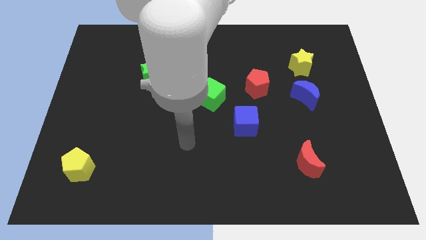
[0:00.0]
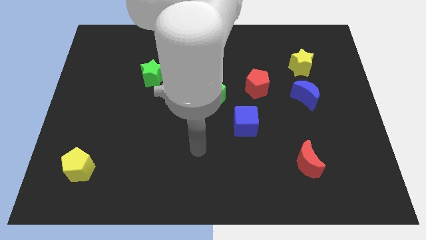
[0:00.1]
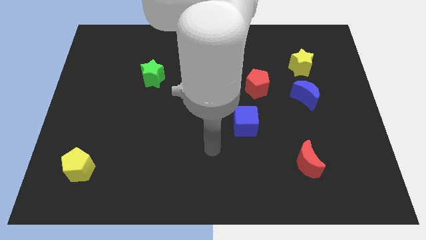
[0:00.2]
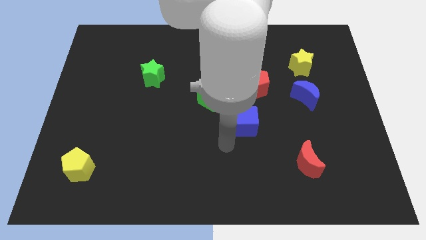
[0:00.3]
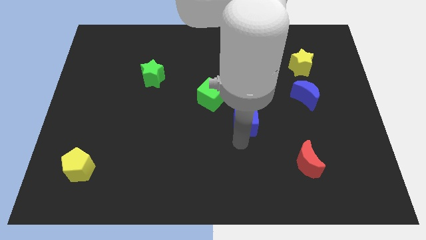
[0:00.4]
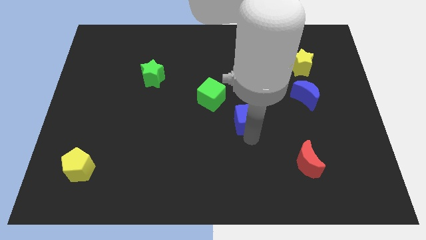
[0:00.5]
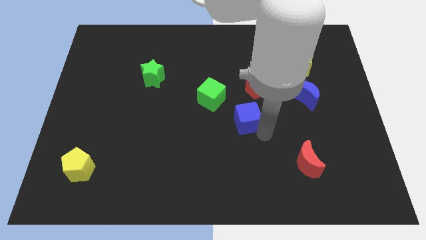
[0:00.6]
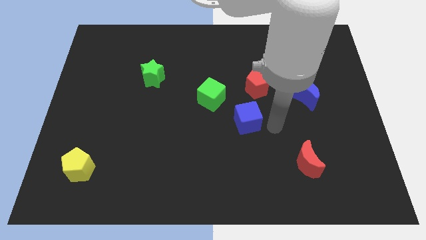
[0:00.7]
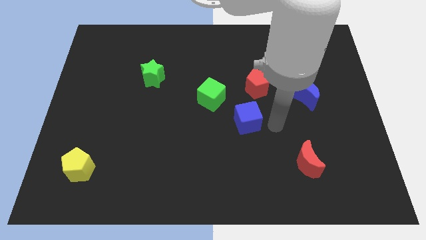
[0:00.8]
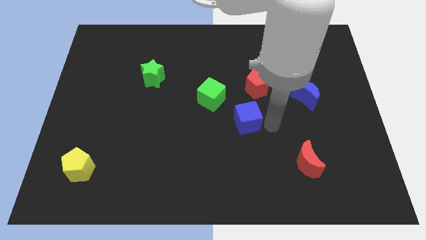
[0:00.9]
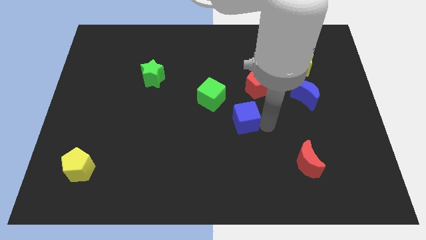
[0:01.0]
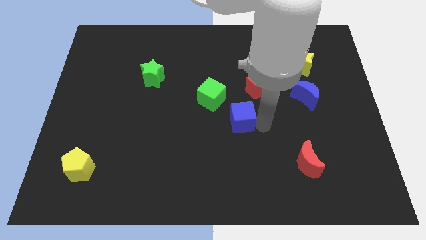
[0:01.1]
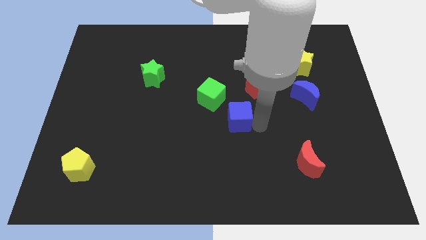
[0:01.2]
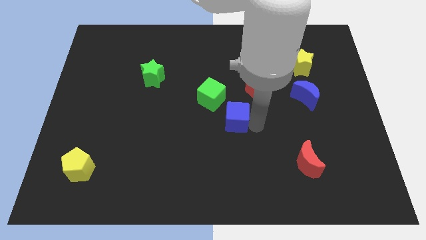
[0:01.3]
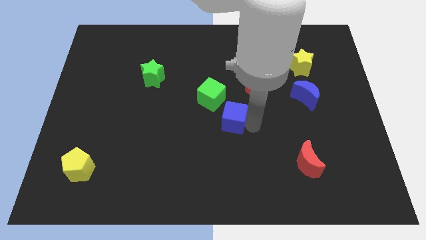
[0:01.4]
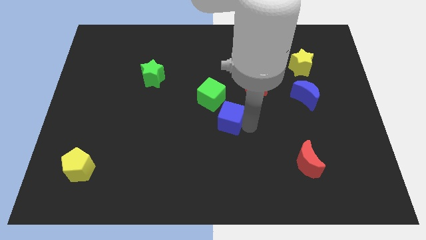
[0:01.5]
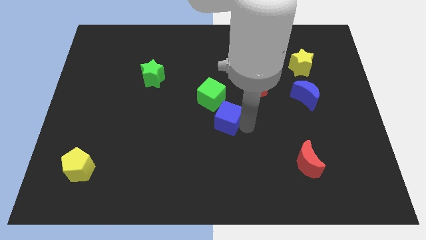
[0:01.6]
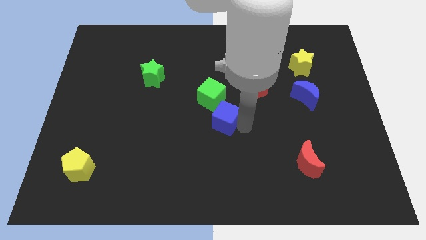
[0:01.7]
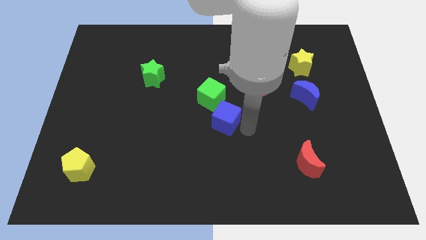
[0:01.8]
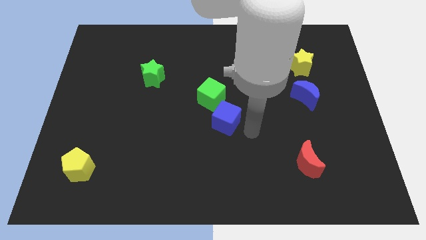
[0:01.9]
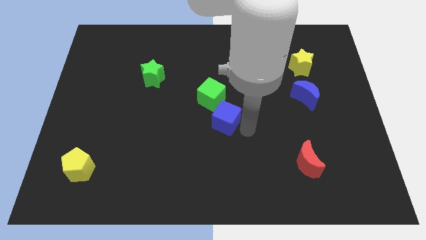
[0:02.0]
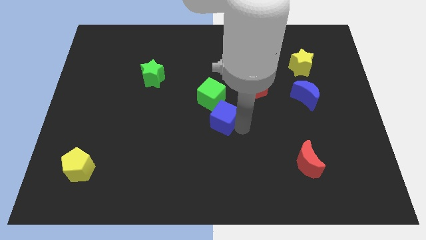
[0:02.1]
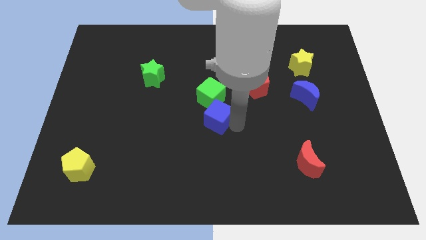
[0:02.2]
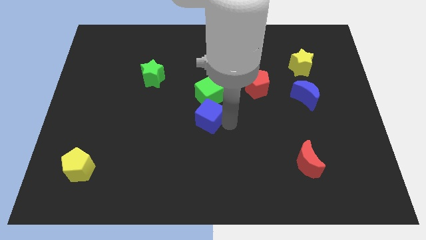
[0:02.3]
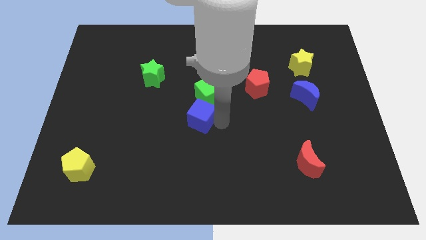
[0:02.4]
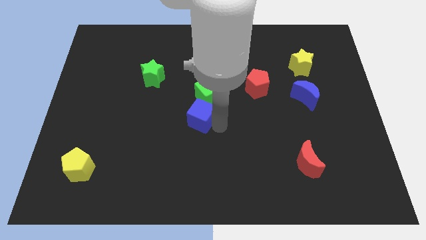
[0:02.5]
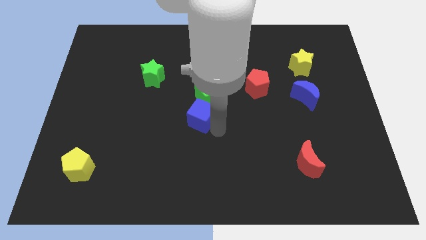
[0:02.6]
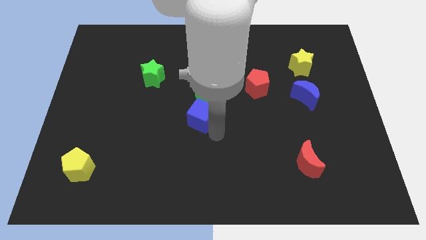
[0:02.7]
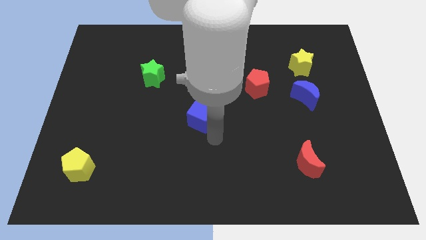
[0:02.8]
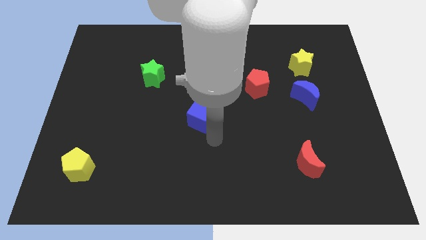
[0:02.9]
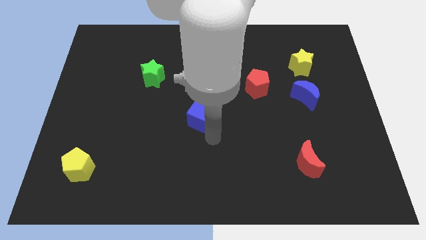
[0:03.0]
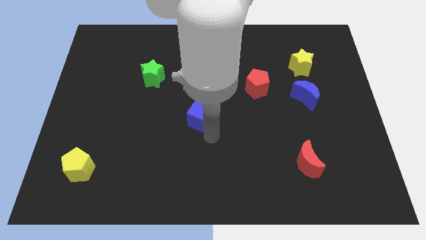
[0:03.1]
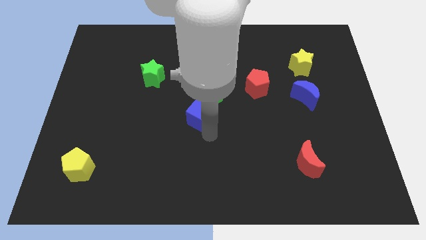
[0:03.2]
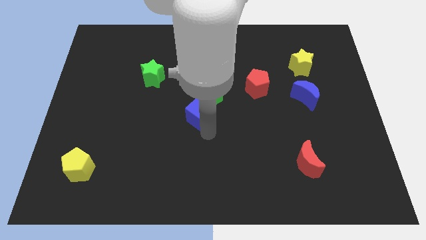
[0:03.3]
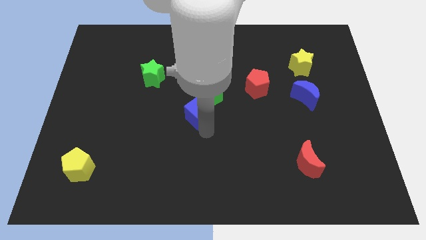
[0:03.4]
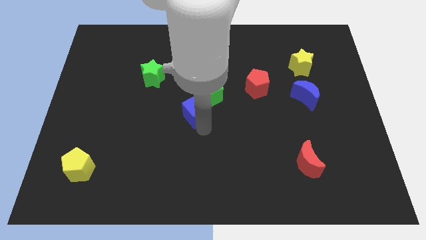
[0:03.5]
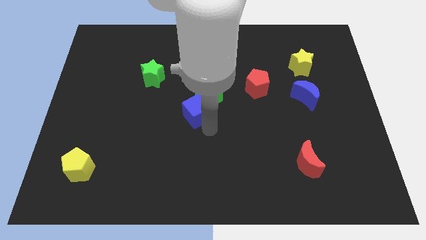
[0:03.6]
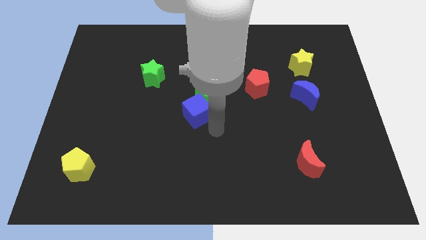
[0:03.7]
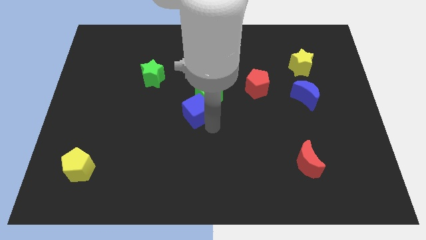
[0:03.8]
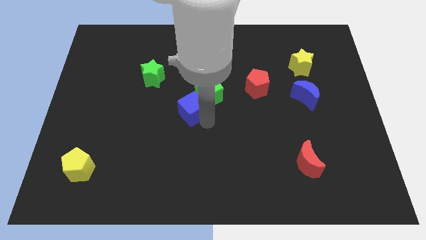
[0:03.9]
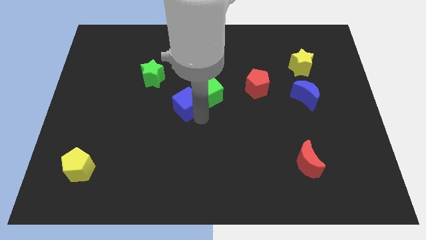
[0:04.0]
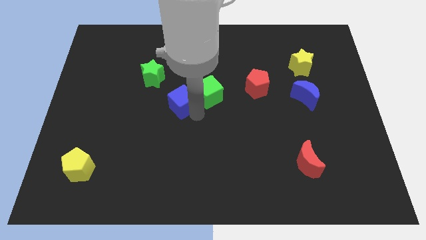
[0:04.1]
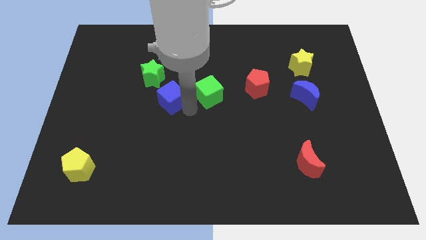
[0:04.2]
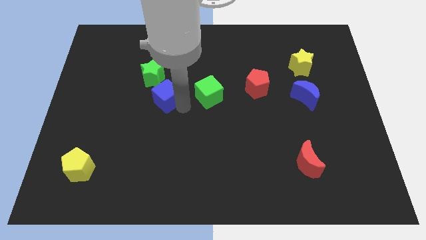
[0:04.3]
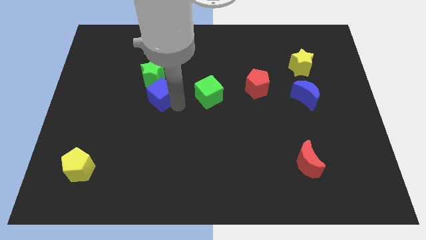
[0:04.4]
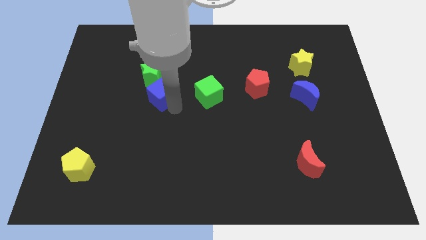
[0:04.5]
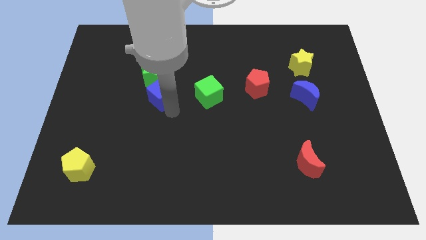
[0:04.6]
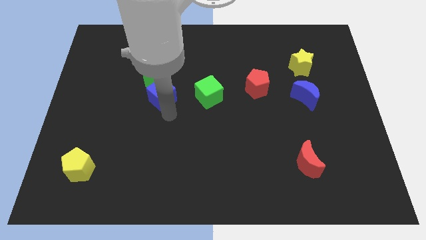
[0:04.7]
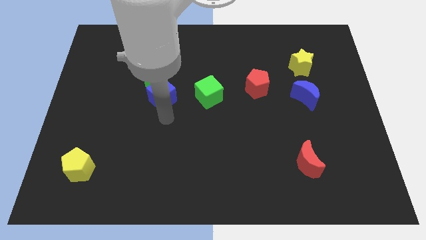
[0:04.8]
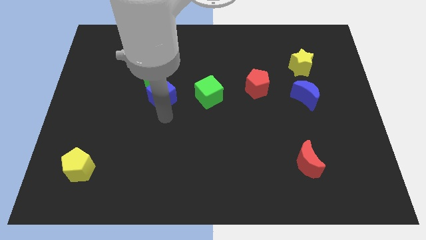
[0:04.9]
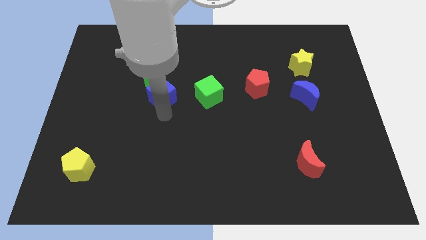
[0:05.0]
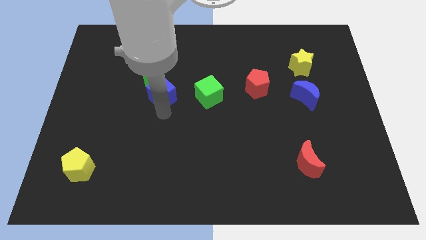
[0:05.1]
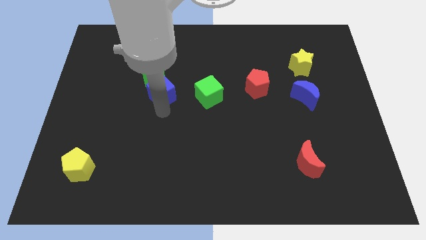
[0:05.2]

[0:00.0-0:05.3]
slide the blue cube to the green star

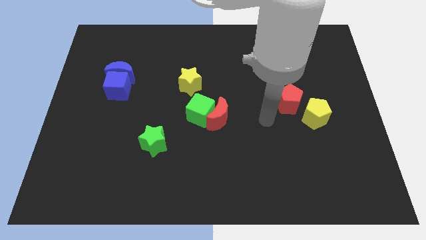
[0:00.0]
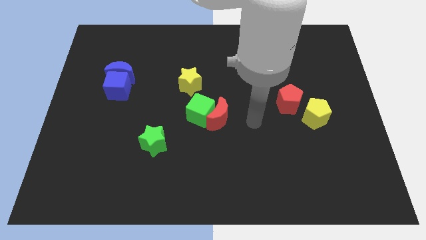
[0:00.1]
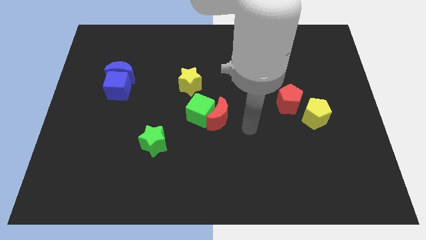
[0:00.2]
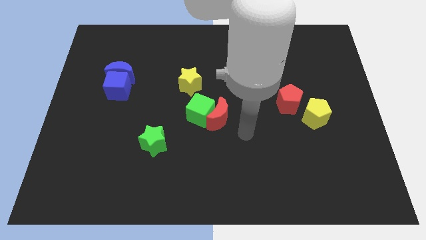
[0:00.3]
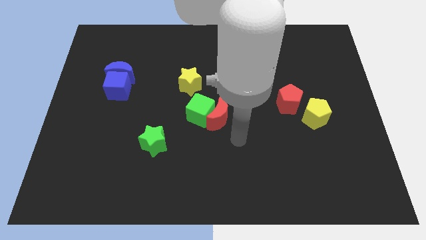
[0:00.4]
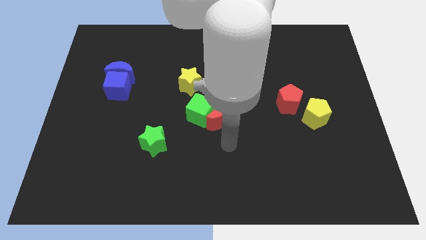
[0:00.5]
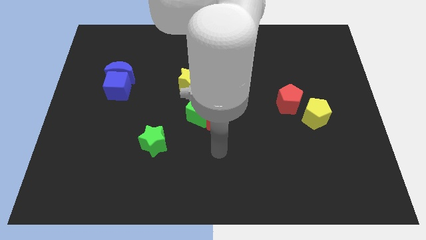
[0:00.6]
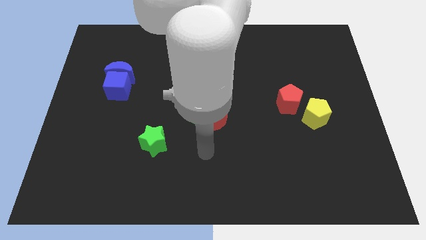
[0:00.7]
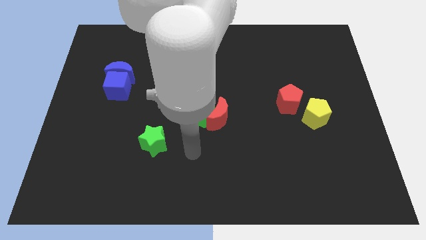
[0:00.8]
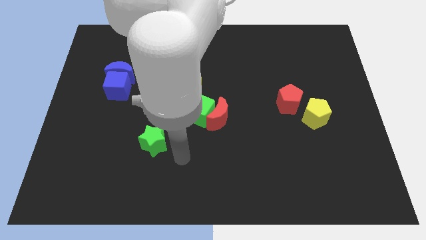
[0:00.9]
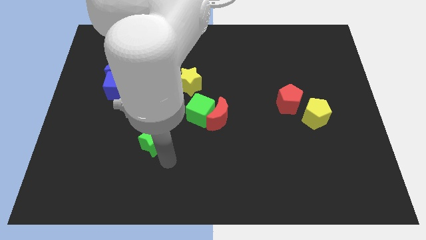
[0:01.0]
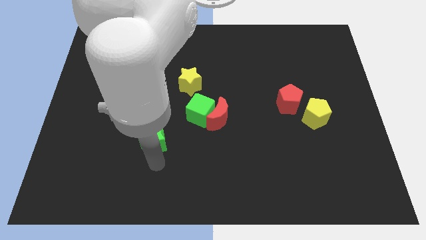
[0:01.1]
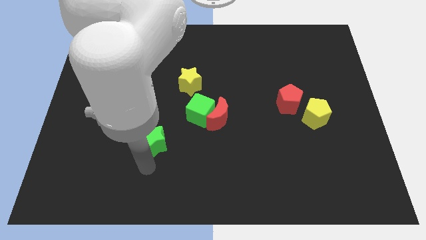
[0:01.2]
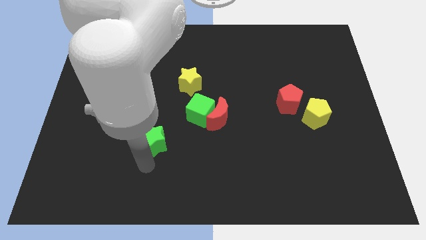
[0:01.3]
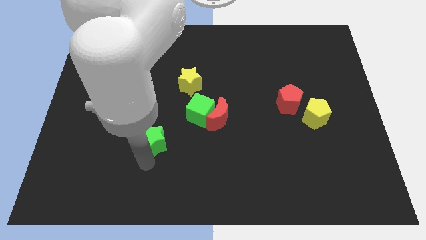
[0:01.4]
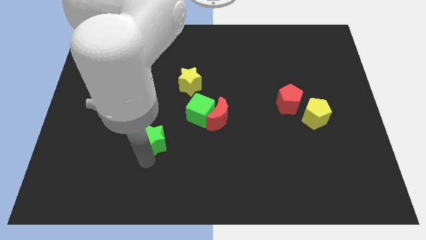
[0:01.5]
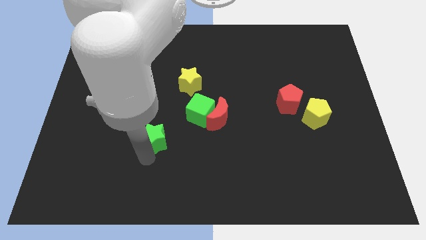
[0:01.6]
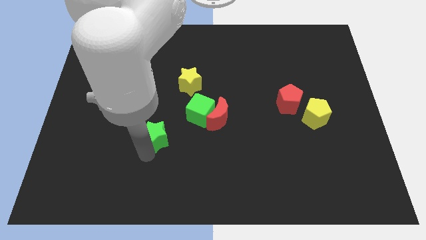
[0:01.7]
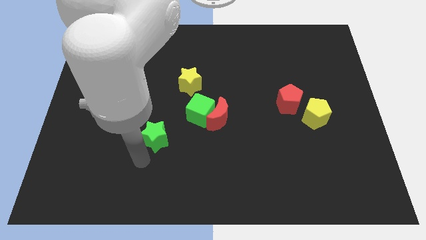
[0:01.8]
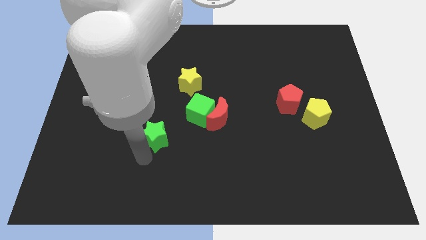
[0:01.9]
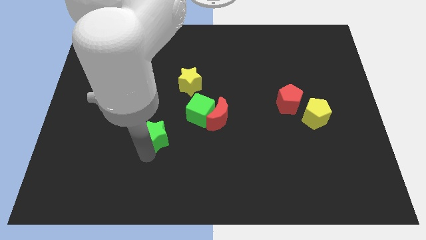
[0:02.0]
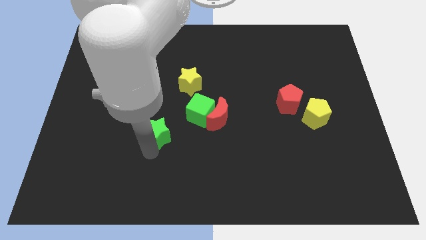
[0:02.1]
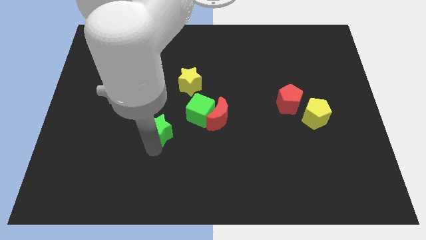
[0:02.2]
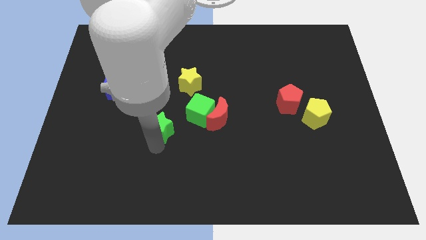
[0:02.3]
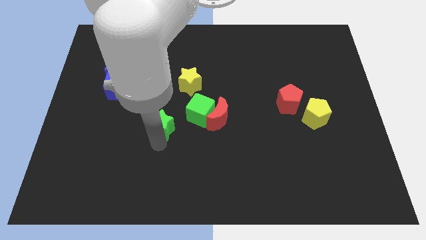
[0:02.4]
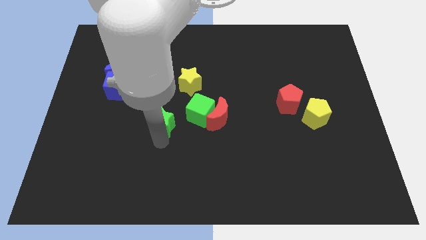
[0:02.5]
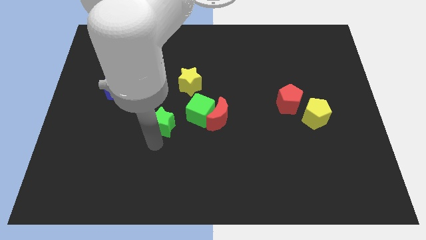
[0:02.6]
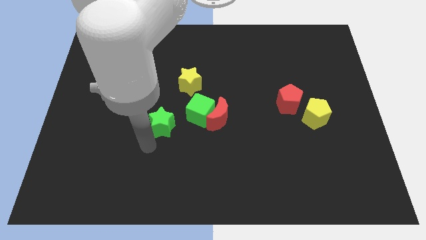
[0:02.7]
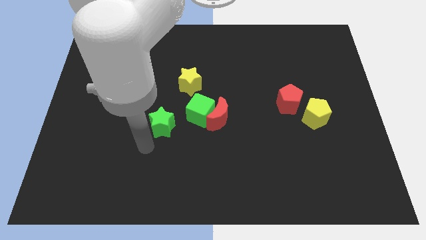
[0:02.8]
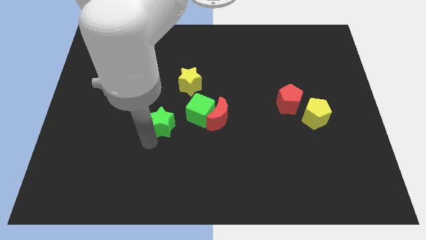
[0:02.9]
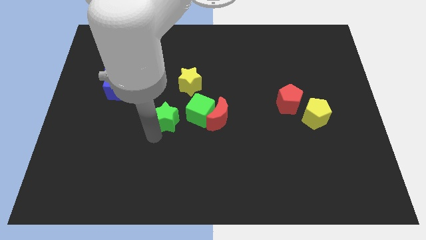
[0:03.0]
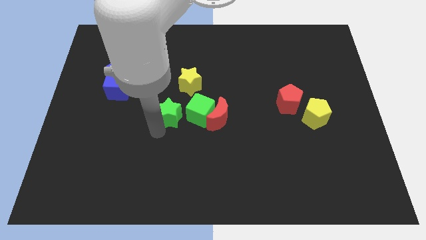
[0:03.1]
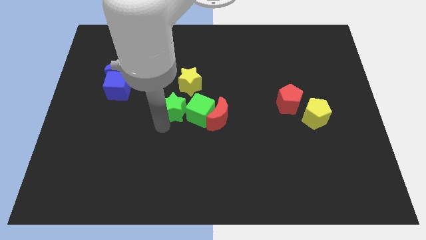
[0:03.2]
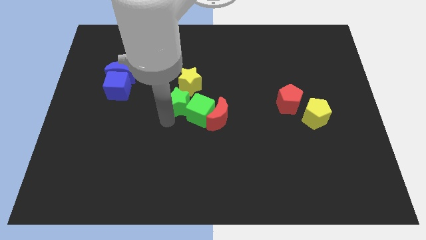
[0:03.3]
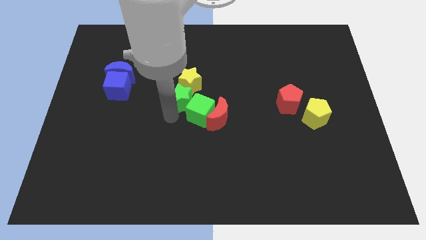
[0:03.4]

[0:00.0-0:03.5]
push the green star close to the yellow star
